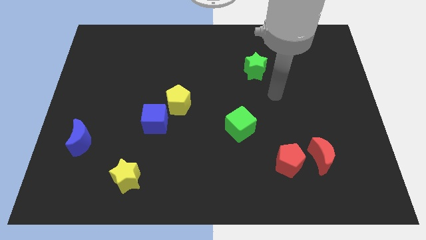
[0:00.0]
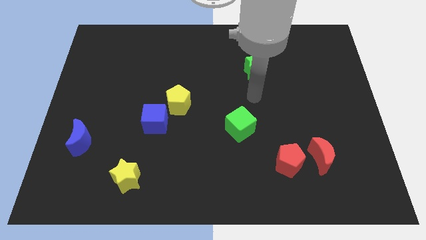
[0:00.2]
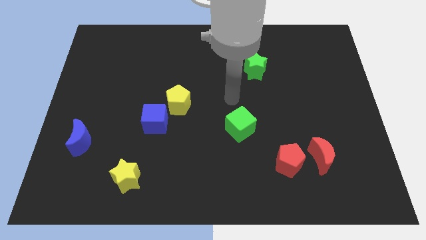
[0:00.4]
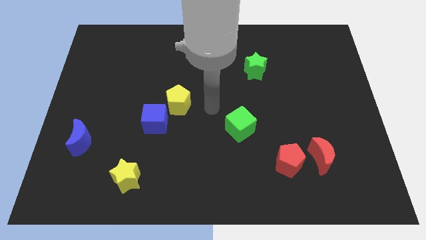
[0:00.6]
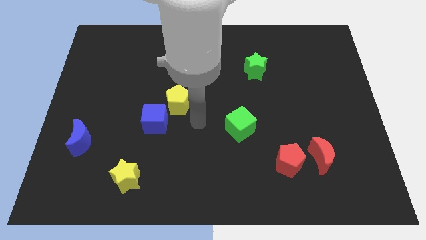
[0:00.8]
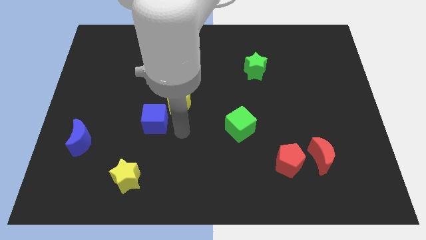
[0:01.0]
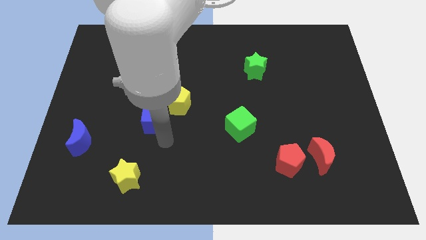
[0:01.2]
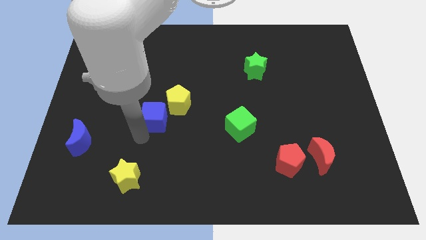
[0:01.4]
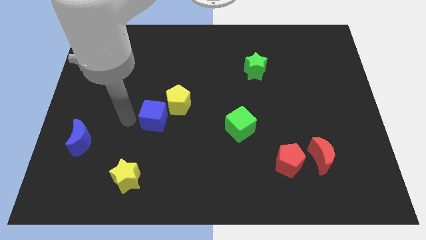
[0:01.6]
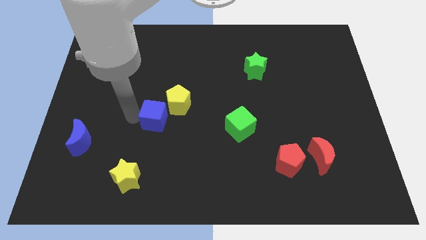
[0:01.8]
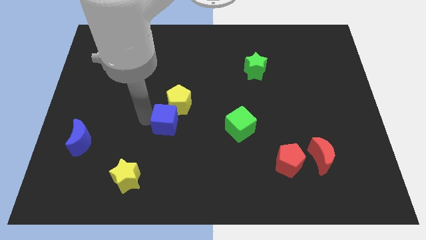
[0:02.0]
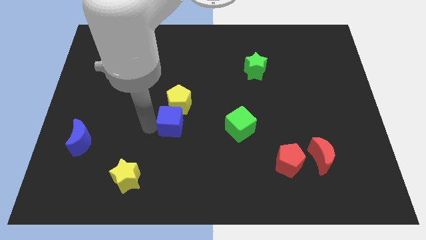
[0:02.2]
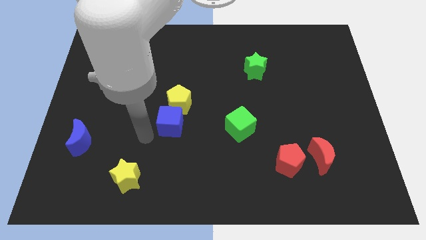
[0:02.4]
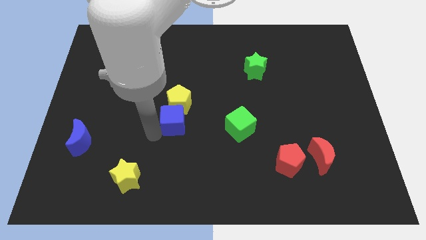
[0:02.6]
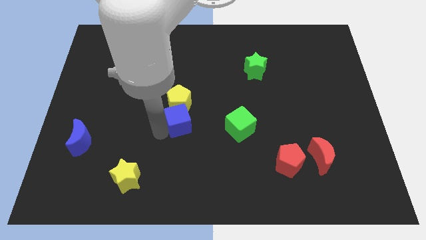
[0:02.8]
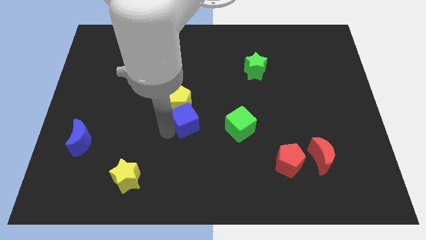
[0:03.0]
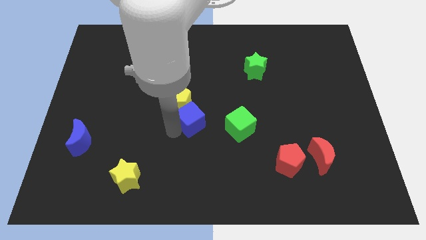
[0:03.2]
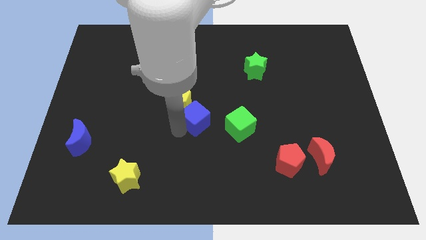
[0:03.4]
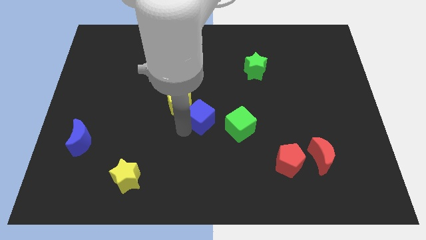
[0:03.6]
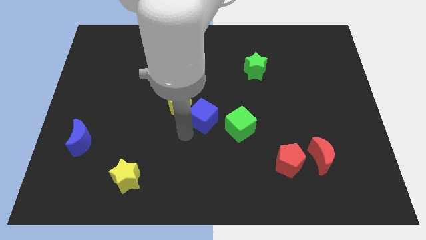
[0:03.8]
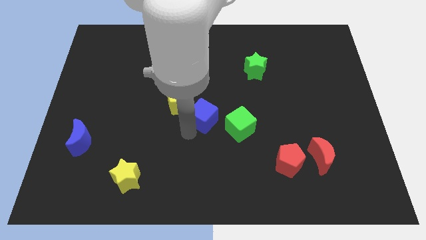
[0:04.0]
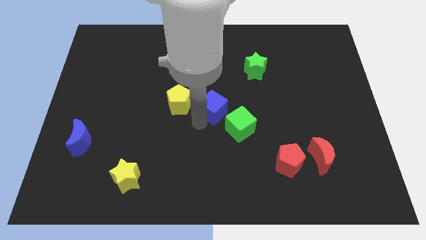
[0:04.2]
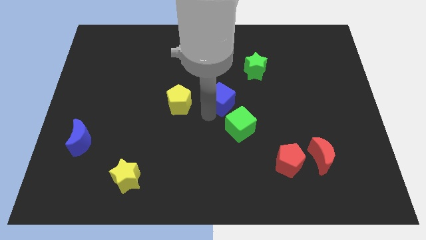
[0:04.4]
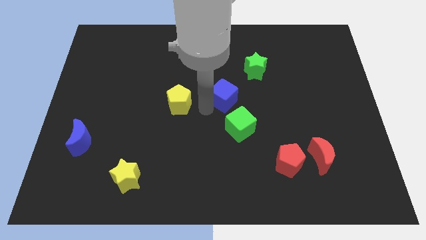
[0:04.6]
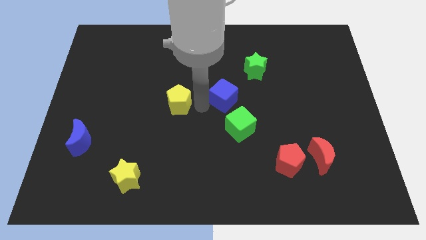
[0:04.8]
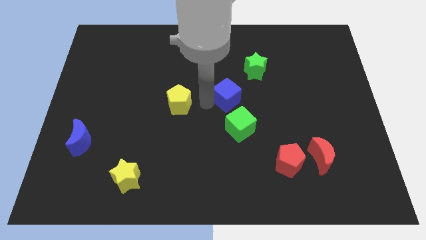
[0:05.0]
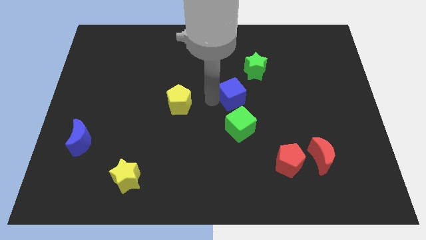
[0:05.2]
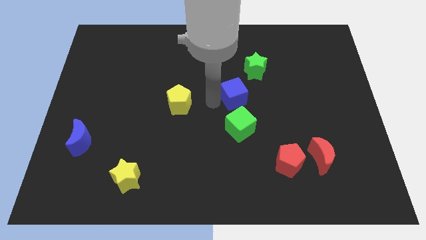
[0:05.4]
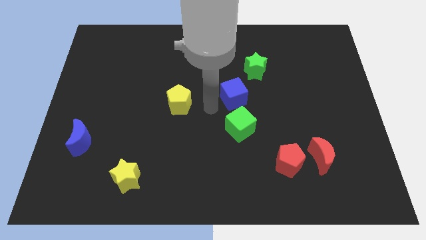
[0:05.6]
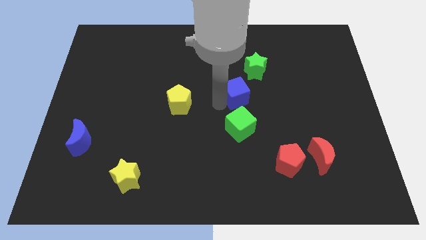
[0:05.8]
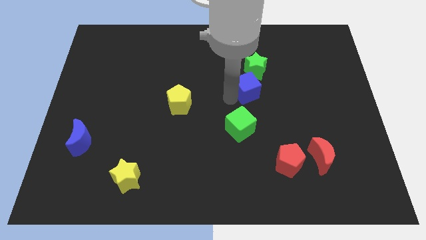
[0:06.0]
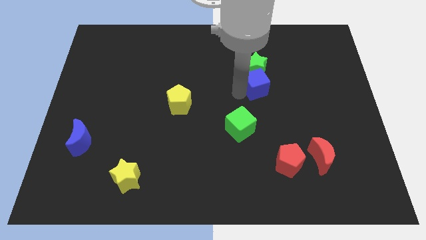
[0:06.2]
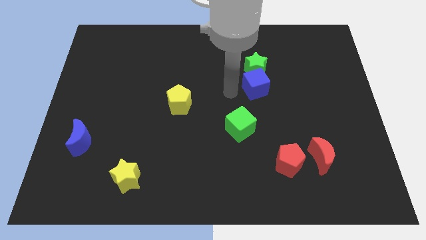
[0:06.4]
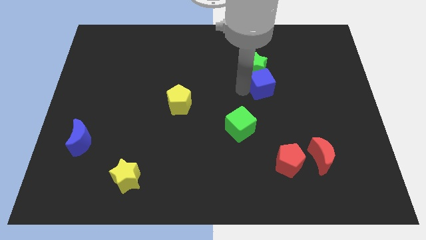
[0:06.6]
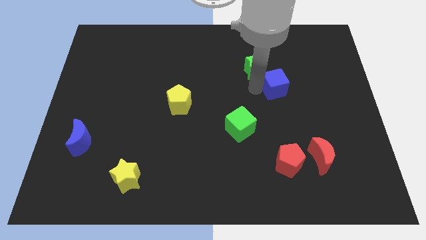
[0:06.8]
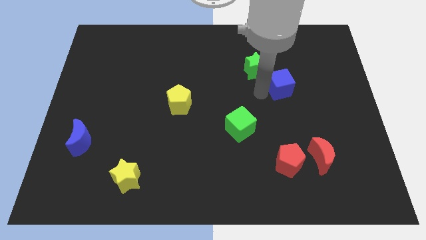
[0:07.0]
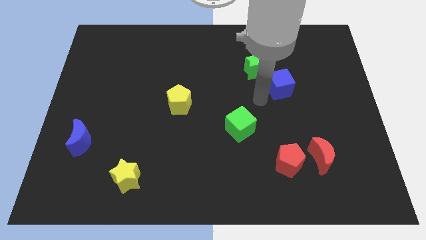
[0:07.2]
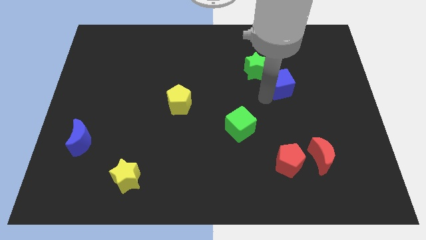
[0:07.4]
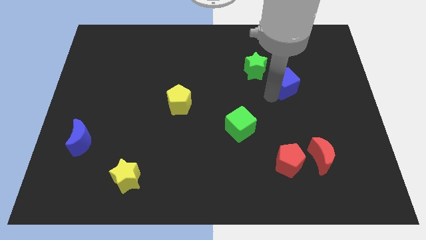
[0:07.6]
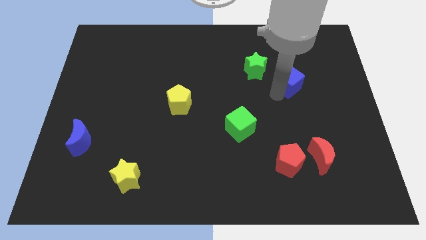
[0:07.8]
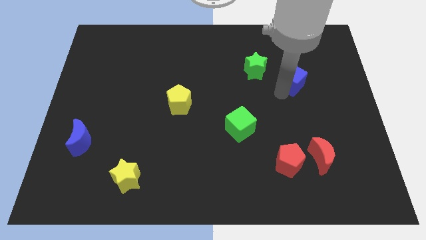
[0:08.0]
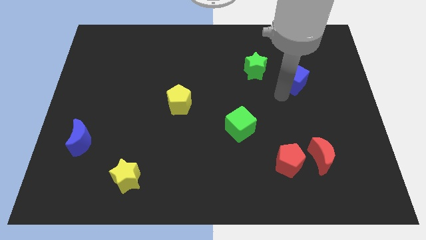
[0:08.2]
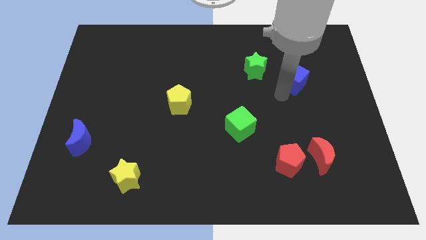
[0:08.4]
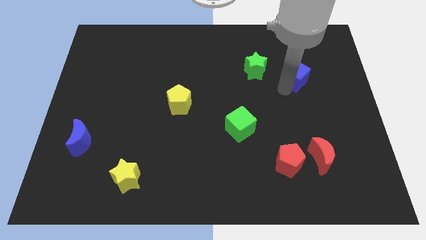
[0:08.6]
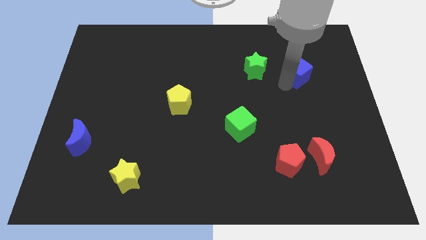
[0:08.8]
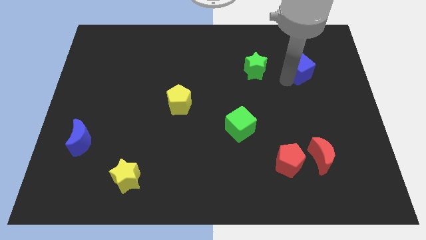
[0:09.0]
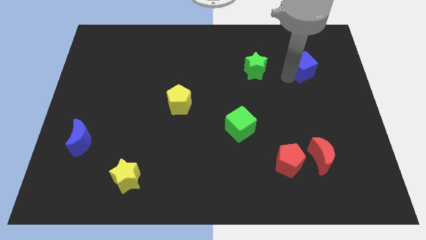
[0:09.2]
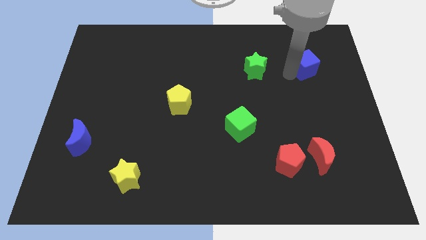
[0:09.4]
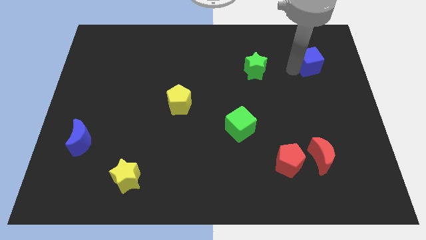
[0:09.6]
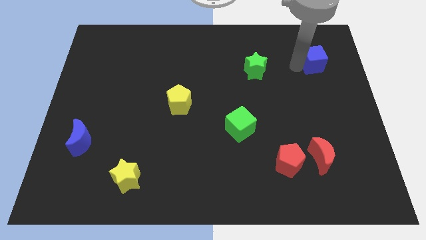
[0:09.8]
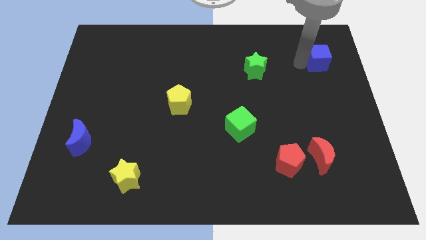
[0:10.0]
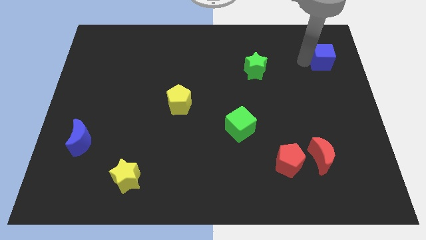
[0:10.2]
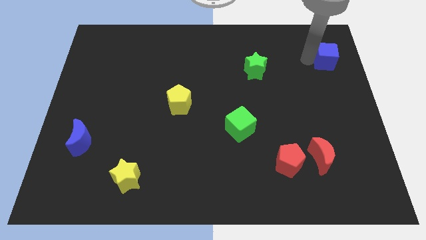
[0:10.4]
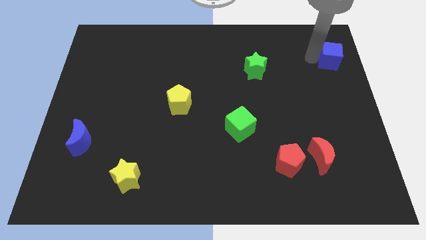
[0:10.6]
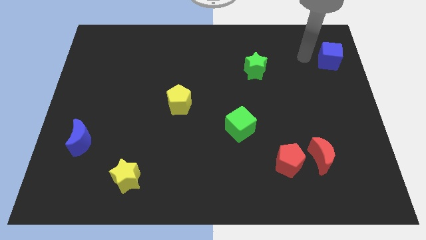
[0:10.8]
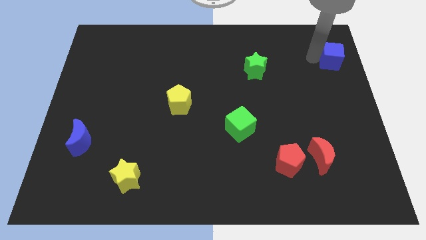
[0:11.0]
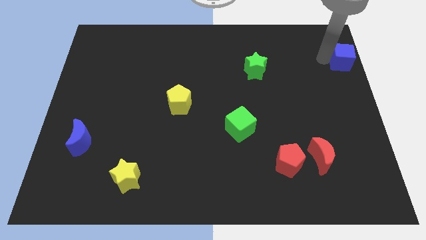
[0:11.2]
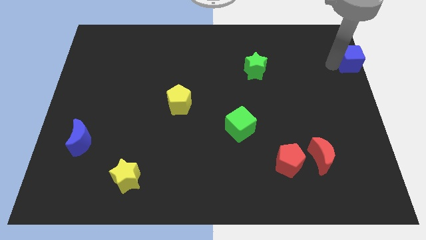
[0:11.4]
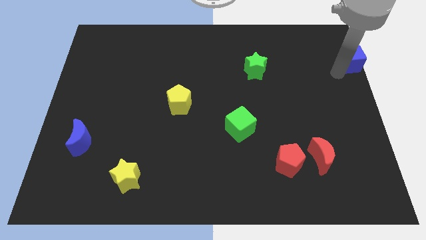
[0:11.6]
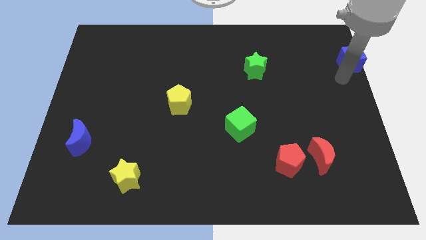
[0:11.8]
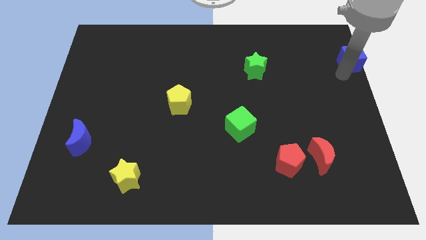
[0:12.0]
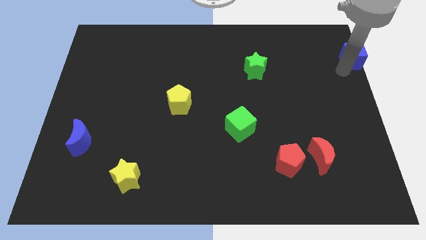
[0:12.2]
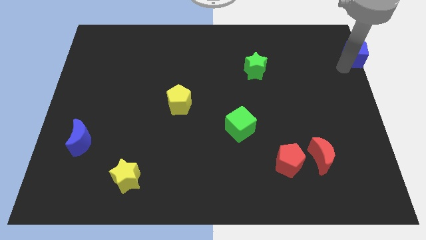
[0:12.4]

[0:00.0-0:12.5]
put the blue cube to the top right
